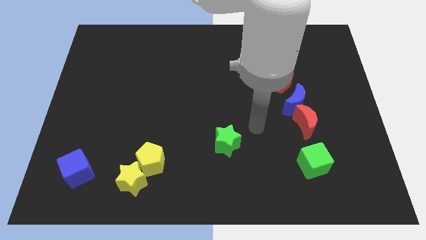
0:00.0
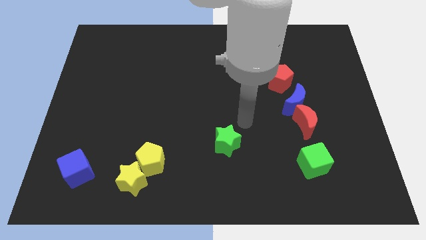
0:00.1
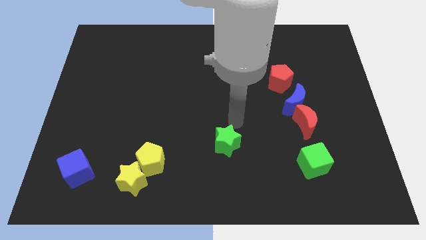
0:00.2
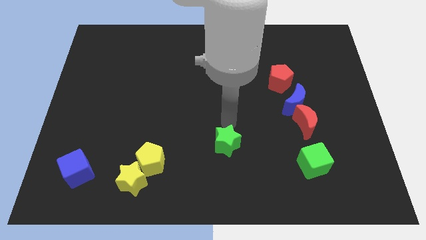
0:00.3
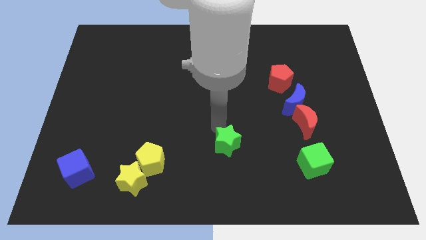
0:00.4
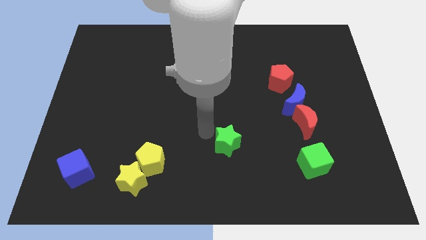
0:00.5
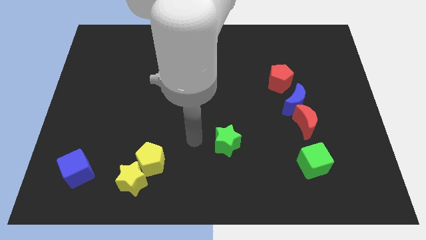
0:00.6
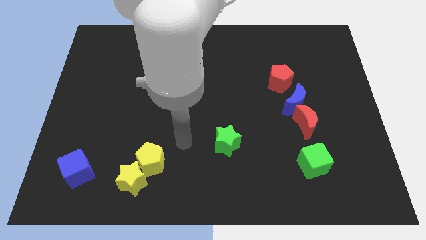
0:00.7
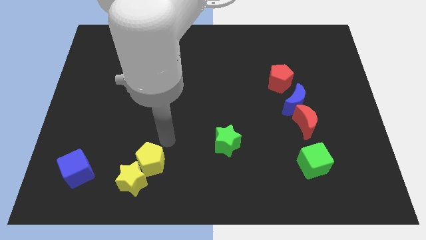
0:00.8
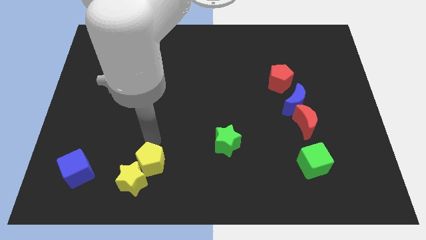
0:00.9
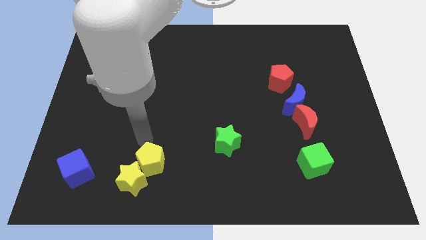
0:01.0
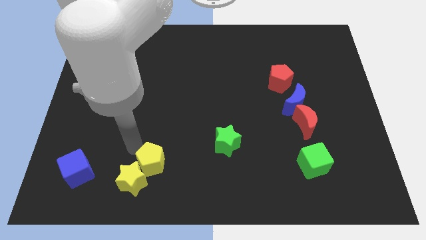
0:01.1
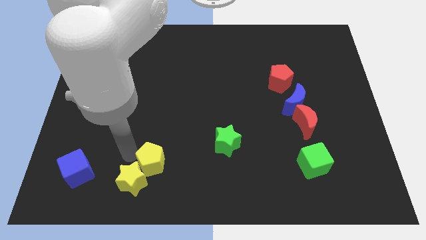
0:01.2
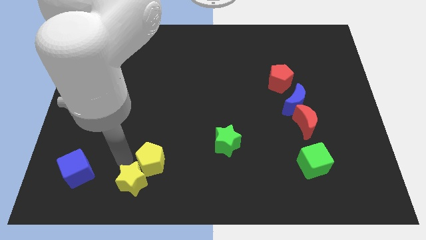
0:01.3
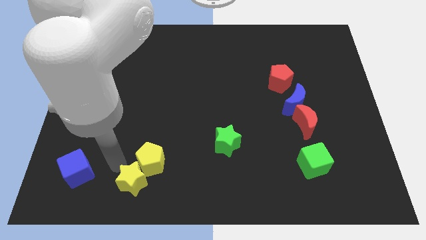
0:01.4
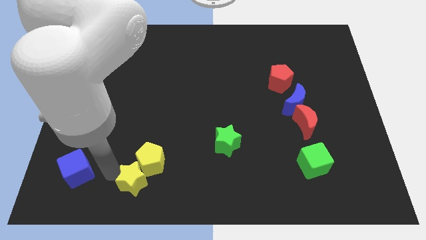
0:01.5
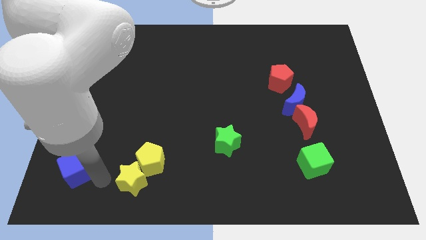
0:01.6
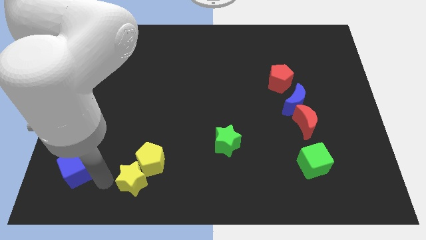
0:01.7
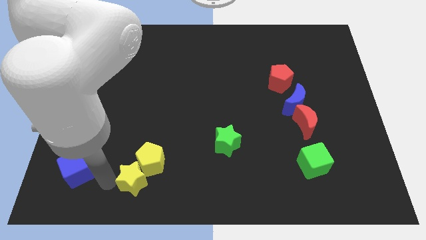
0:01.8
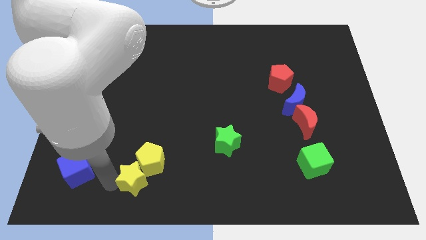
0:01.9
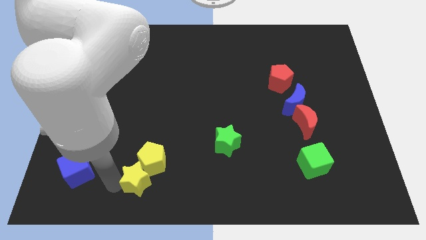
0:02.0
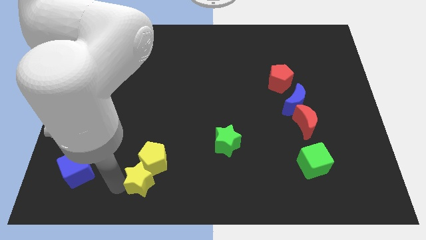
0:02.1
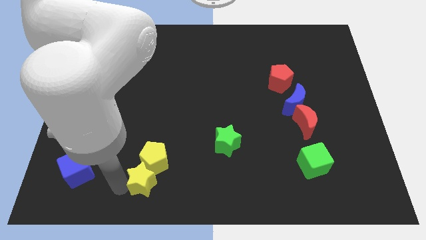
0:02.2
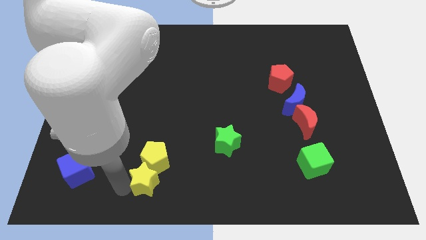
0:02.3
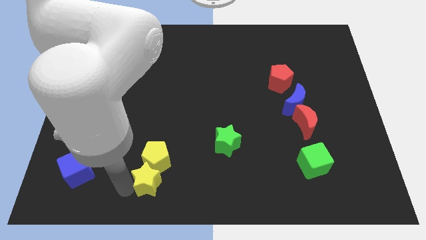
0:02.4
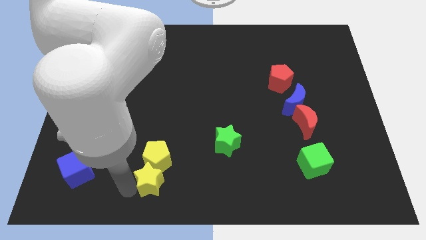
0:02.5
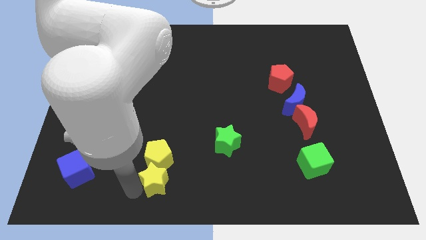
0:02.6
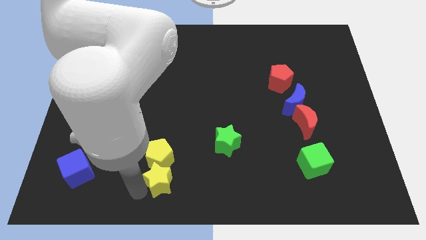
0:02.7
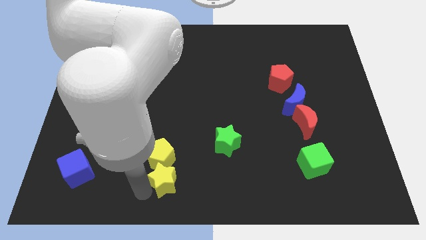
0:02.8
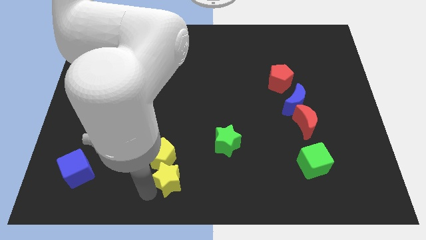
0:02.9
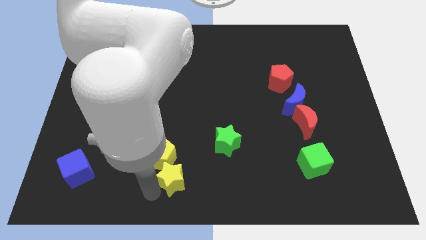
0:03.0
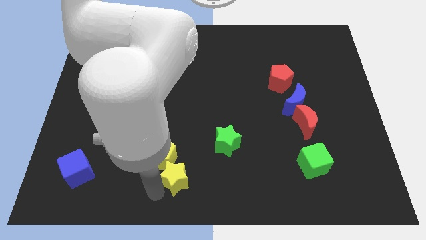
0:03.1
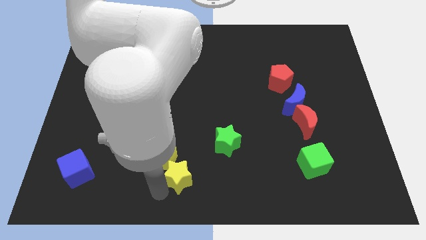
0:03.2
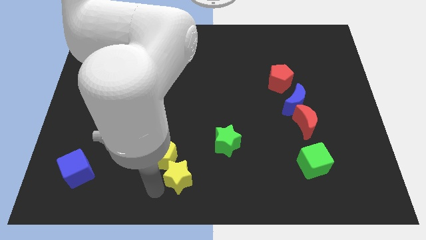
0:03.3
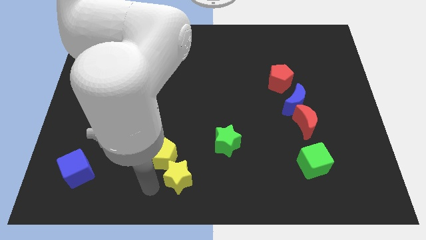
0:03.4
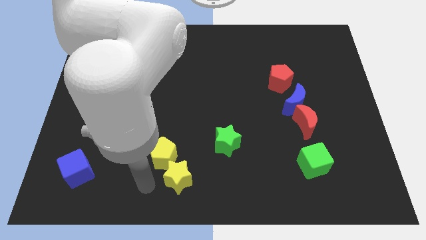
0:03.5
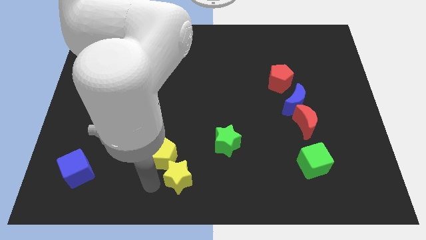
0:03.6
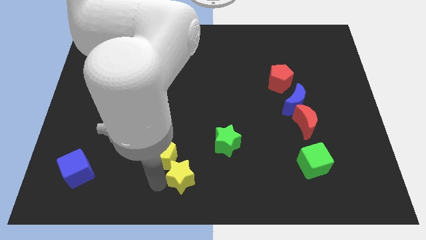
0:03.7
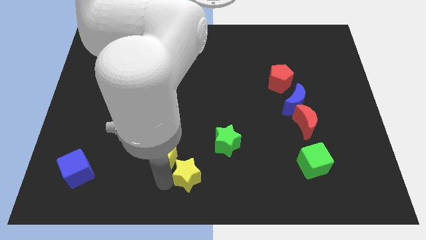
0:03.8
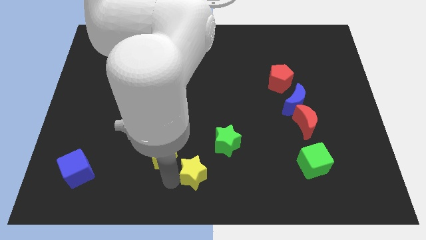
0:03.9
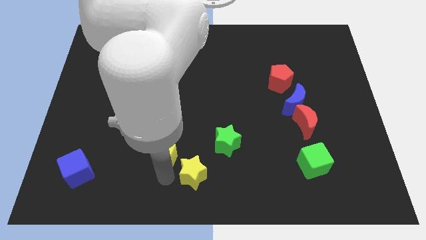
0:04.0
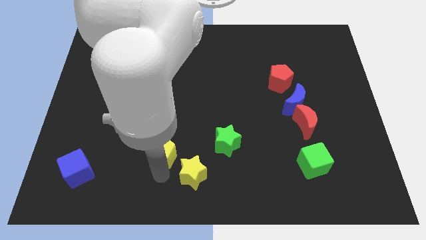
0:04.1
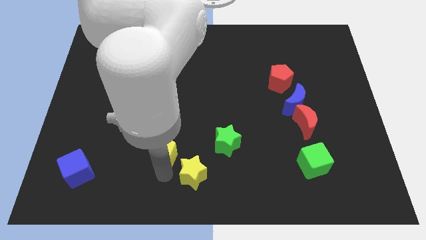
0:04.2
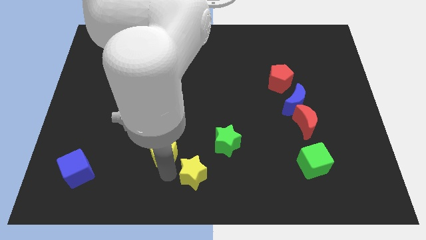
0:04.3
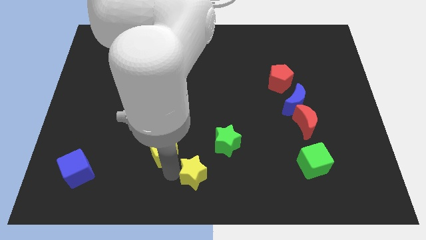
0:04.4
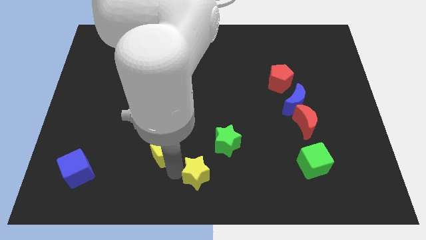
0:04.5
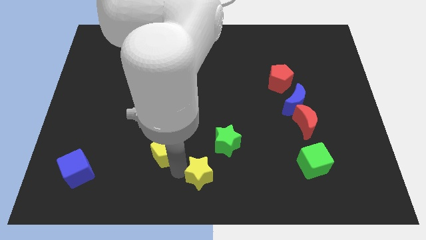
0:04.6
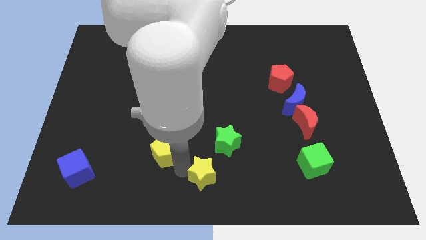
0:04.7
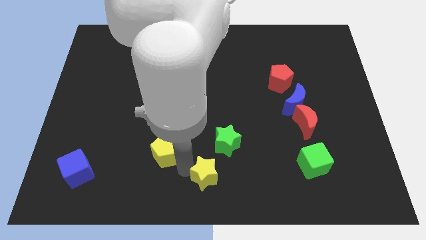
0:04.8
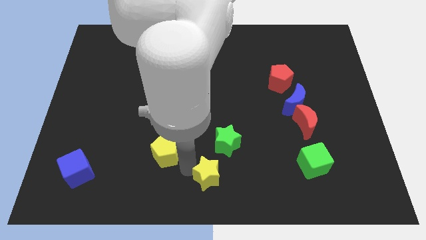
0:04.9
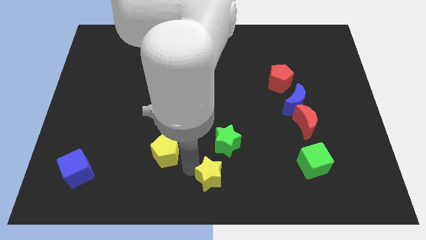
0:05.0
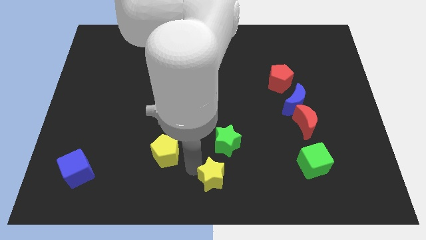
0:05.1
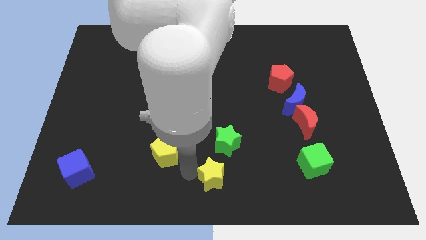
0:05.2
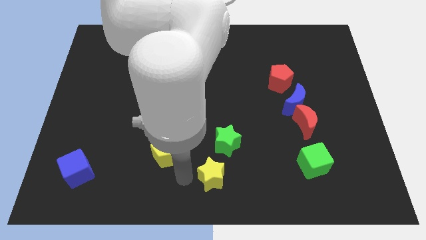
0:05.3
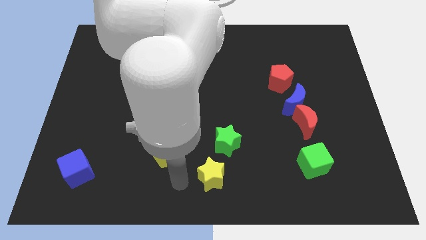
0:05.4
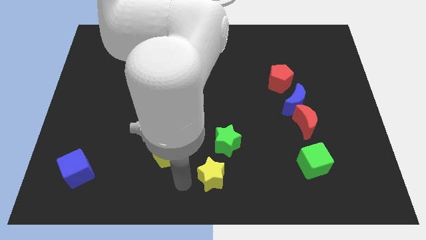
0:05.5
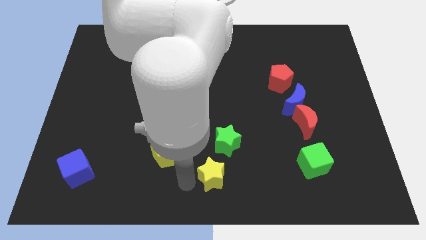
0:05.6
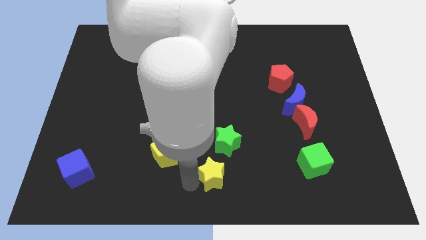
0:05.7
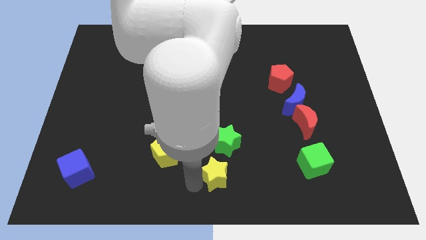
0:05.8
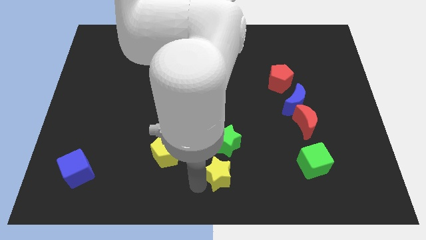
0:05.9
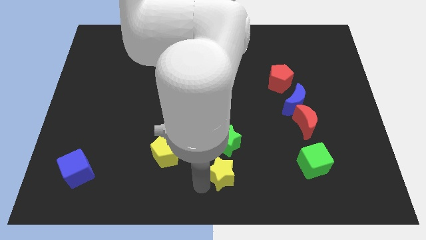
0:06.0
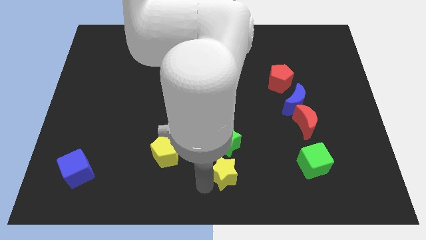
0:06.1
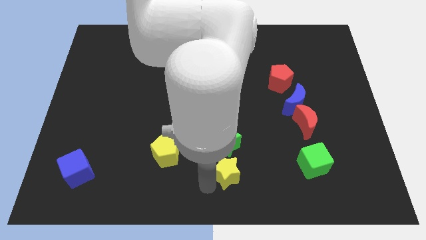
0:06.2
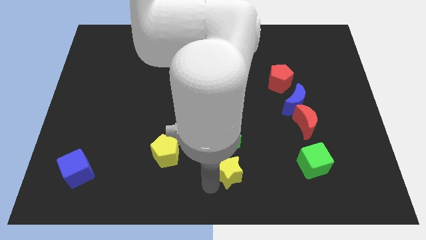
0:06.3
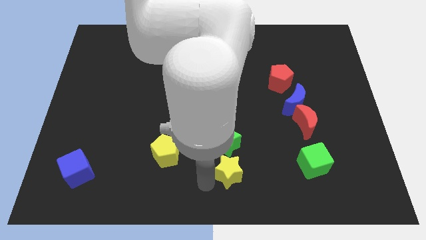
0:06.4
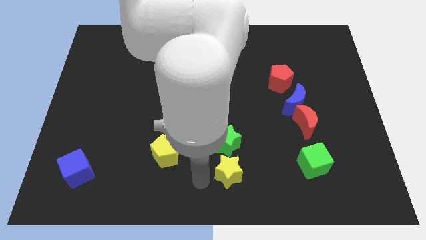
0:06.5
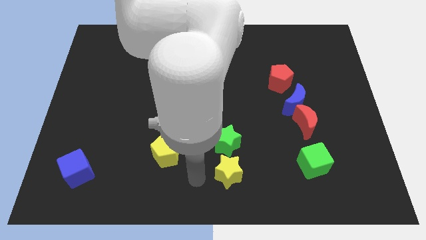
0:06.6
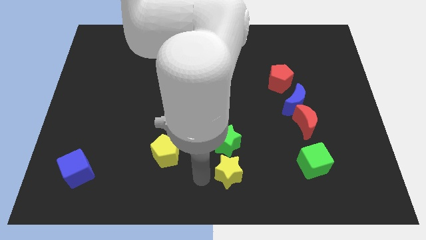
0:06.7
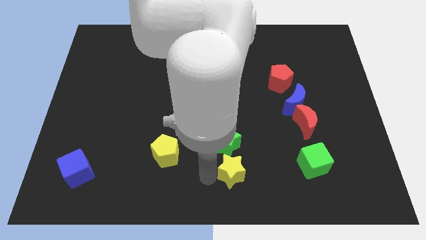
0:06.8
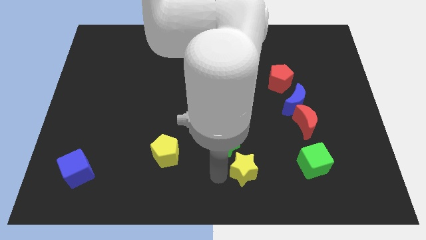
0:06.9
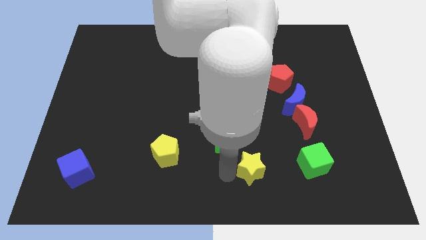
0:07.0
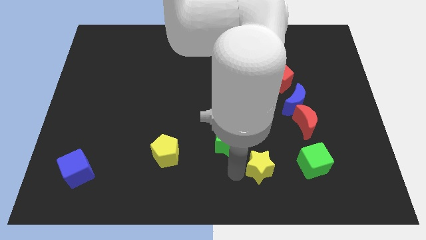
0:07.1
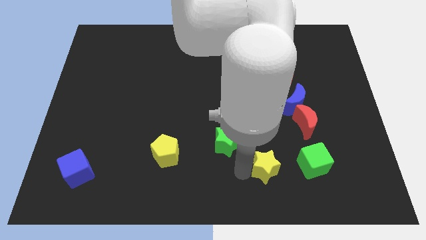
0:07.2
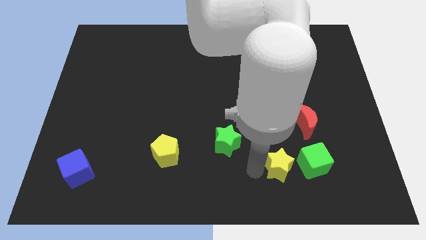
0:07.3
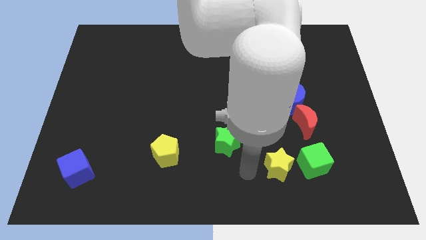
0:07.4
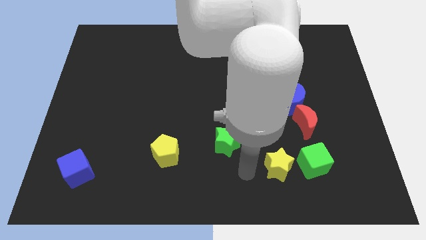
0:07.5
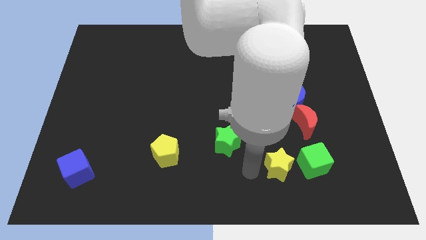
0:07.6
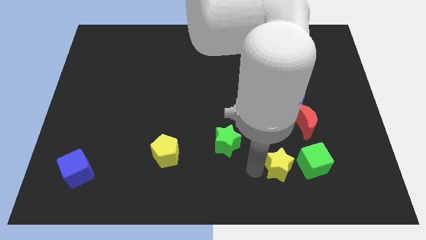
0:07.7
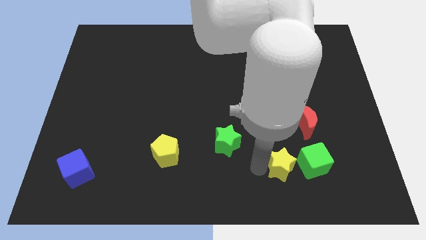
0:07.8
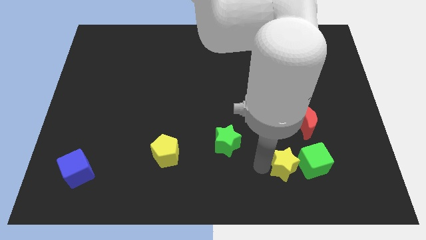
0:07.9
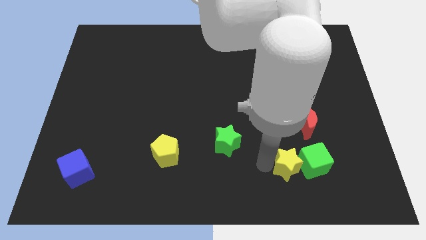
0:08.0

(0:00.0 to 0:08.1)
push the yellow star close to the green cube
